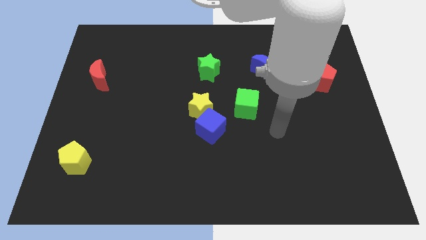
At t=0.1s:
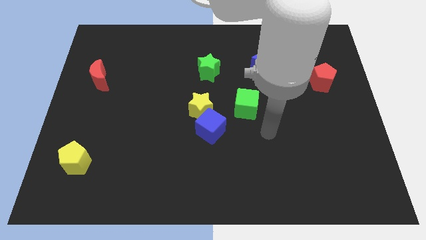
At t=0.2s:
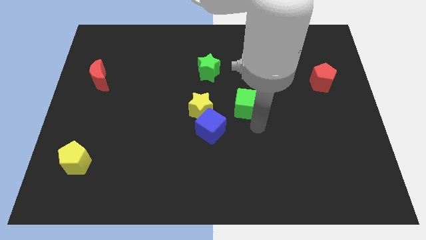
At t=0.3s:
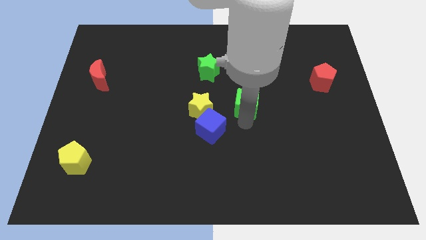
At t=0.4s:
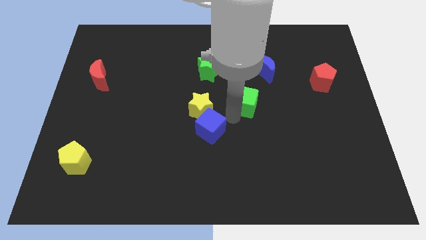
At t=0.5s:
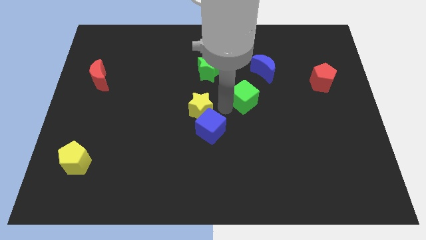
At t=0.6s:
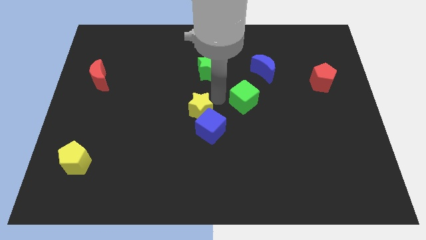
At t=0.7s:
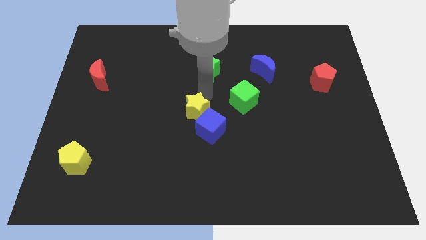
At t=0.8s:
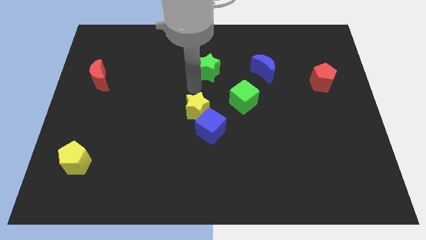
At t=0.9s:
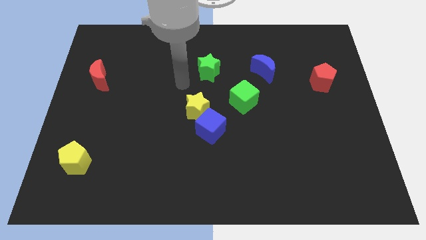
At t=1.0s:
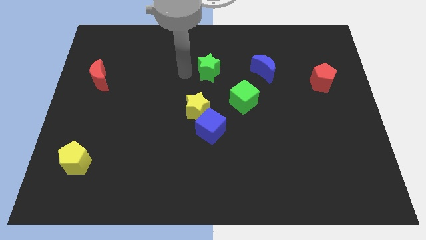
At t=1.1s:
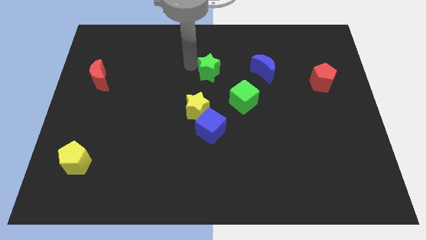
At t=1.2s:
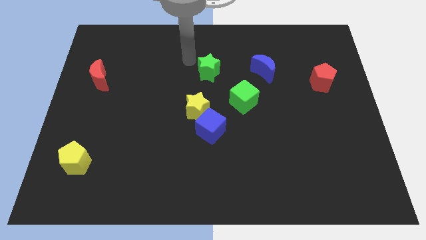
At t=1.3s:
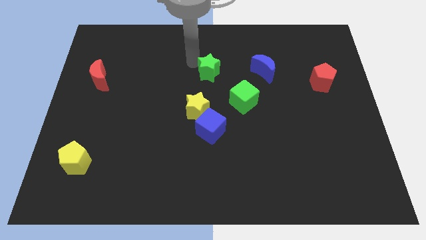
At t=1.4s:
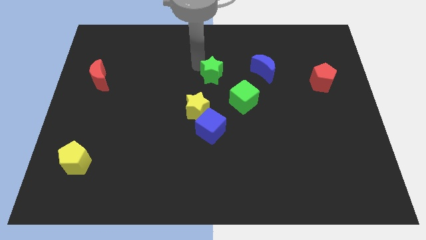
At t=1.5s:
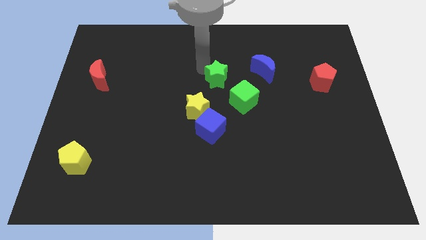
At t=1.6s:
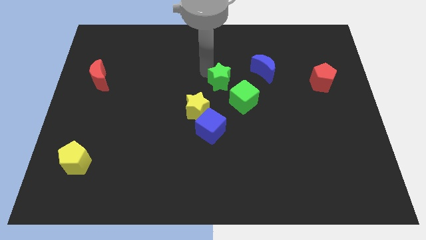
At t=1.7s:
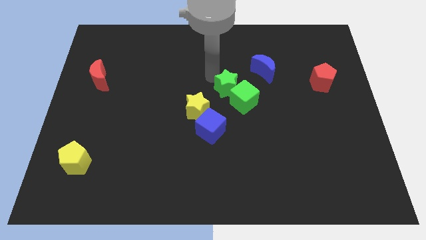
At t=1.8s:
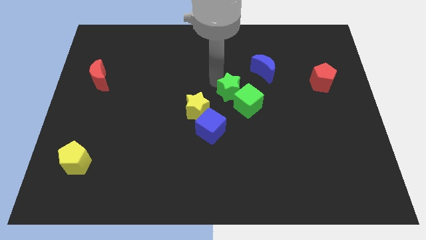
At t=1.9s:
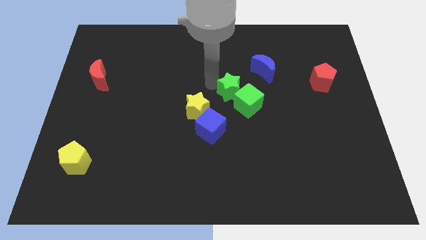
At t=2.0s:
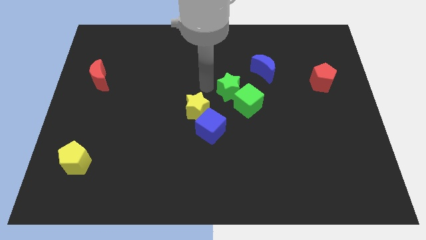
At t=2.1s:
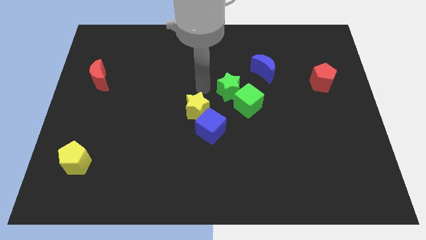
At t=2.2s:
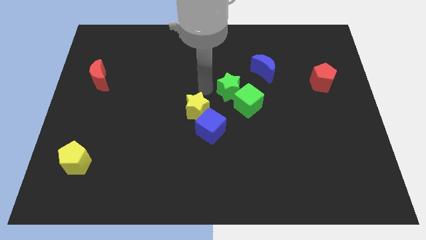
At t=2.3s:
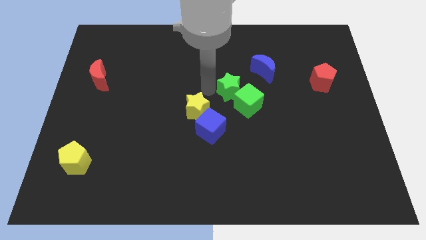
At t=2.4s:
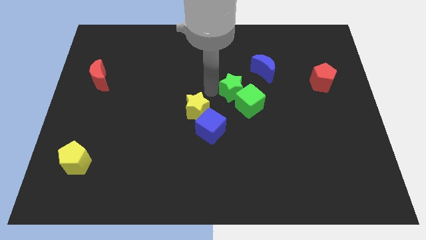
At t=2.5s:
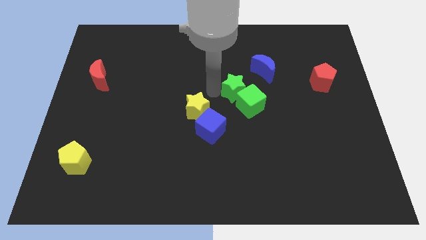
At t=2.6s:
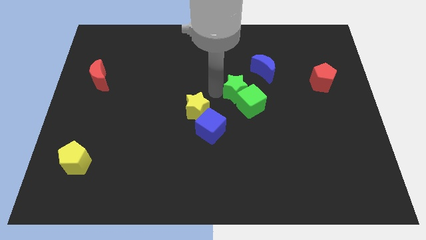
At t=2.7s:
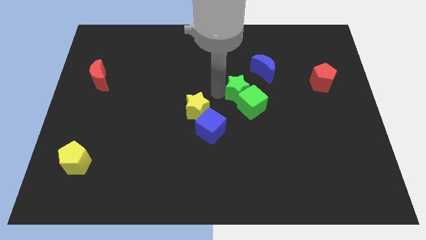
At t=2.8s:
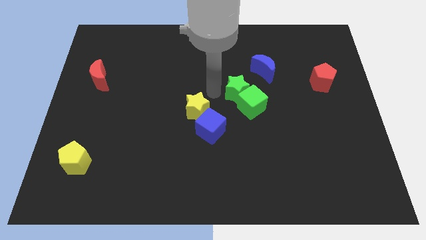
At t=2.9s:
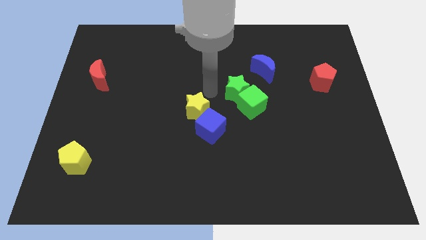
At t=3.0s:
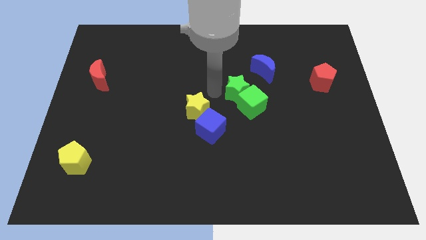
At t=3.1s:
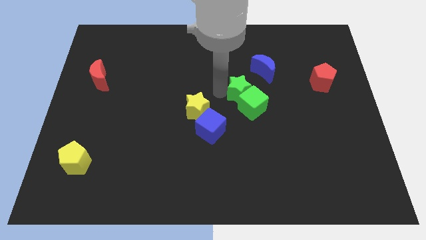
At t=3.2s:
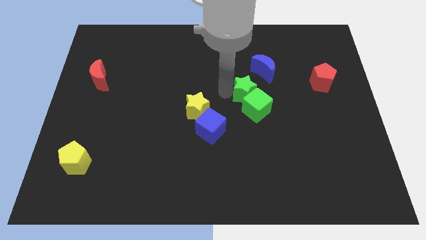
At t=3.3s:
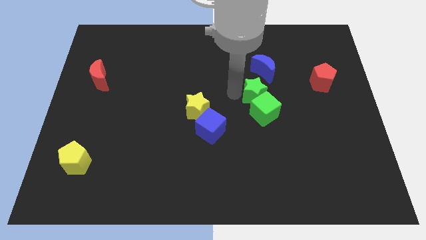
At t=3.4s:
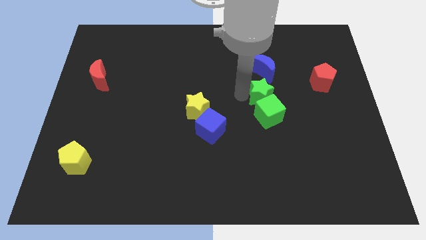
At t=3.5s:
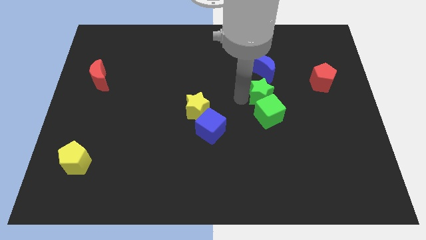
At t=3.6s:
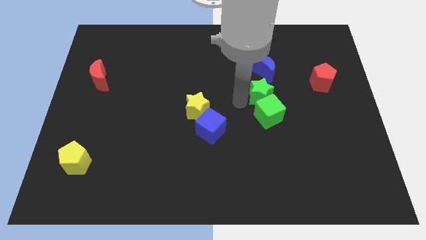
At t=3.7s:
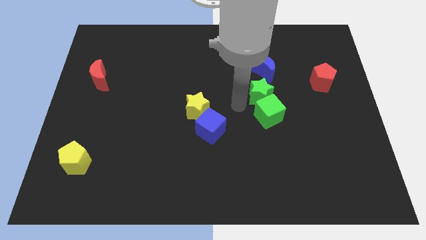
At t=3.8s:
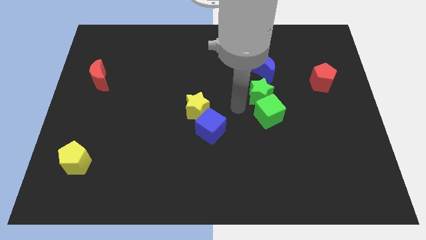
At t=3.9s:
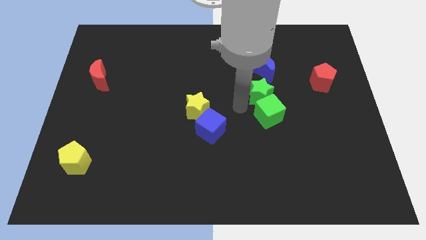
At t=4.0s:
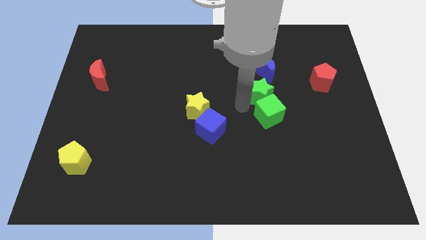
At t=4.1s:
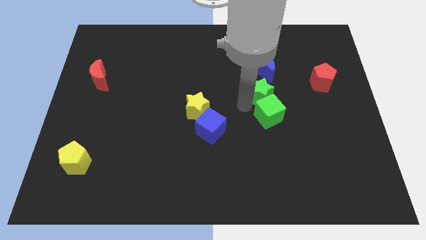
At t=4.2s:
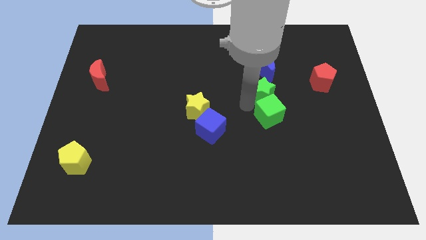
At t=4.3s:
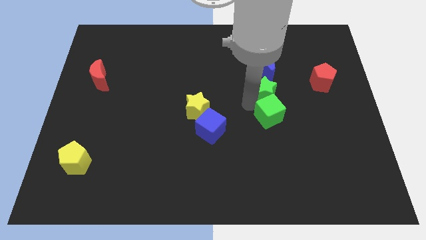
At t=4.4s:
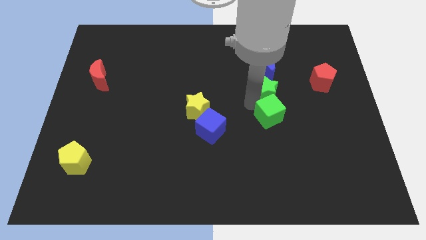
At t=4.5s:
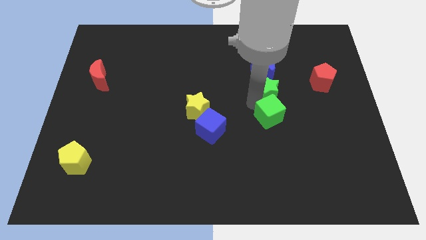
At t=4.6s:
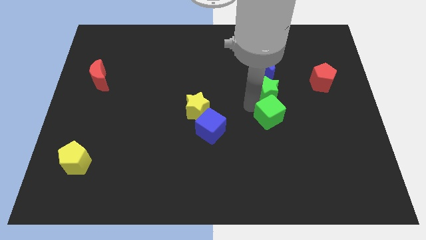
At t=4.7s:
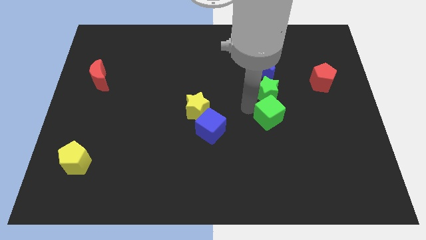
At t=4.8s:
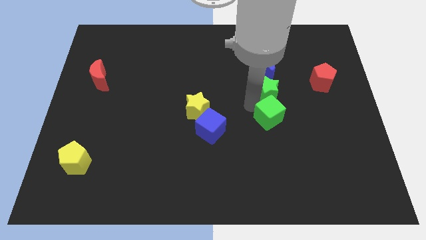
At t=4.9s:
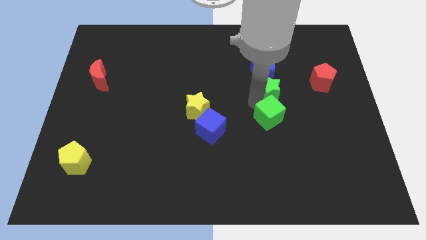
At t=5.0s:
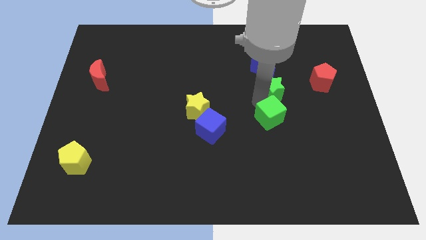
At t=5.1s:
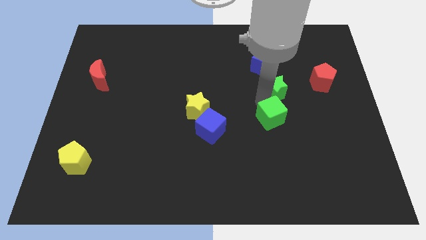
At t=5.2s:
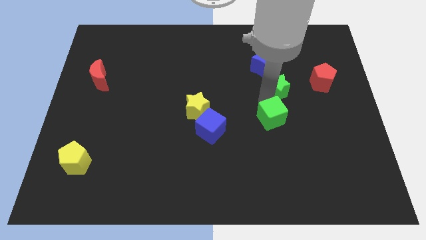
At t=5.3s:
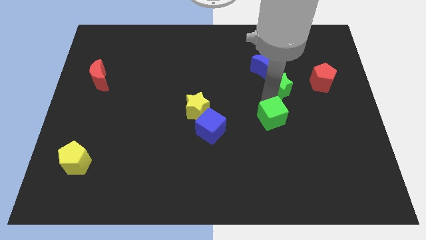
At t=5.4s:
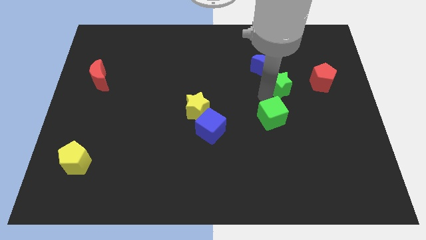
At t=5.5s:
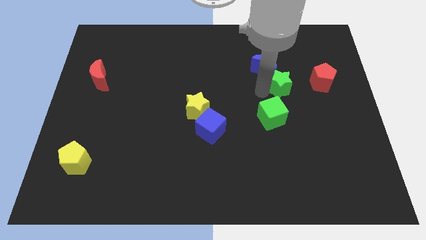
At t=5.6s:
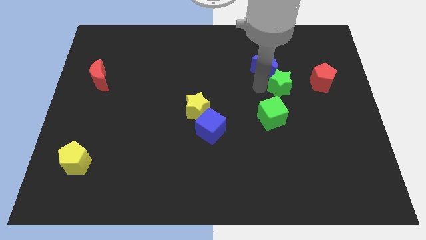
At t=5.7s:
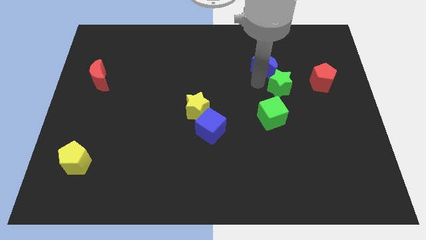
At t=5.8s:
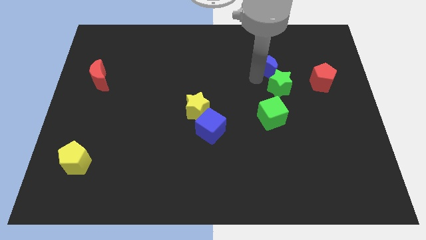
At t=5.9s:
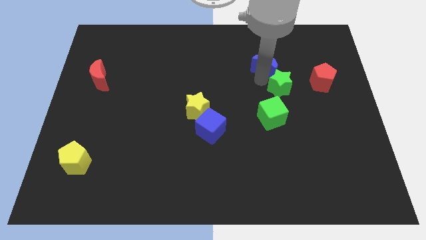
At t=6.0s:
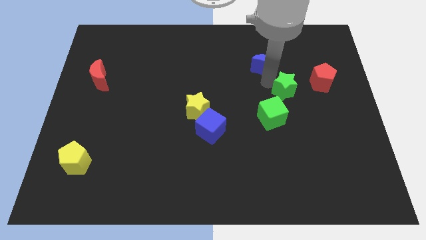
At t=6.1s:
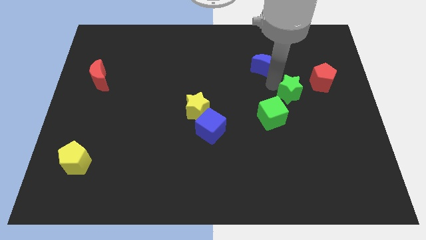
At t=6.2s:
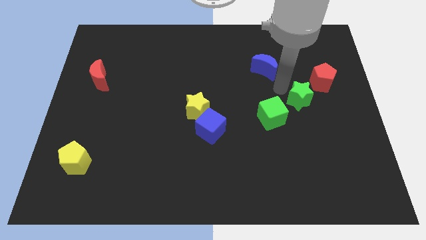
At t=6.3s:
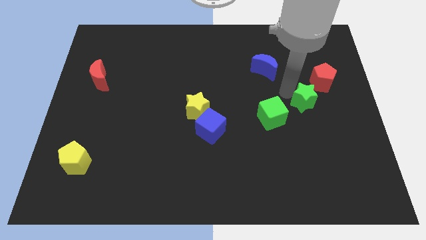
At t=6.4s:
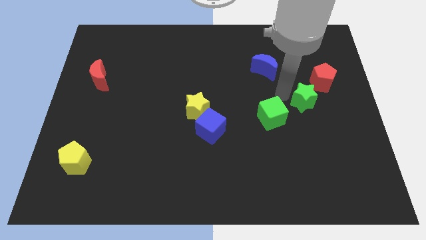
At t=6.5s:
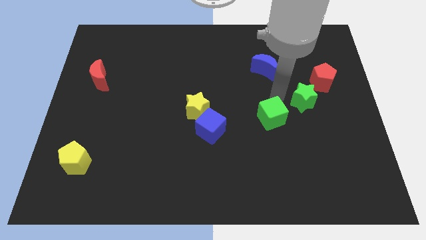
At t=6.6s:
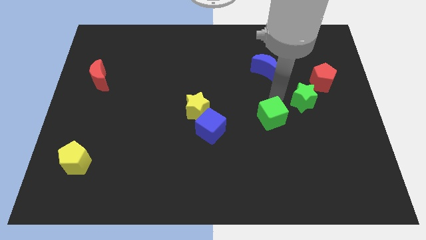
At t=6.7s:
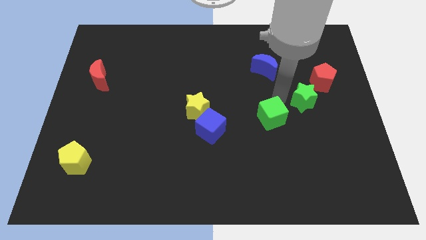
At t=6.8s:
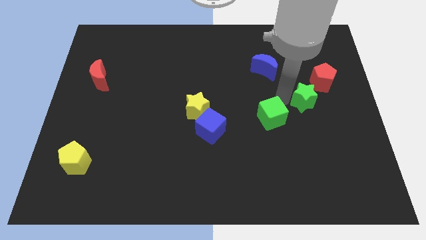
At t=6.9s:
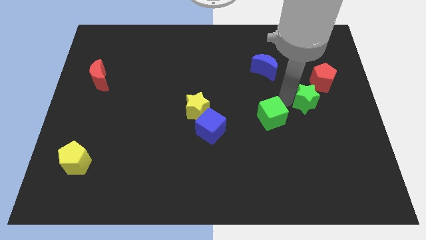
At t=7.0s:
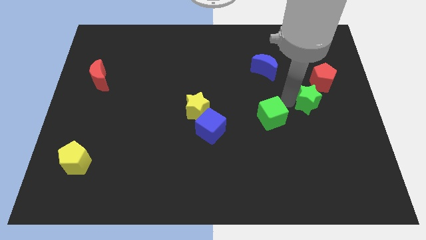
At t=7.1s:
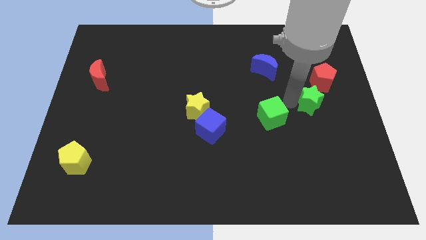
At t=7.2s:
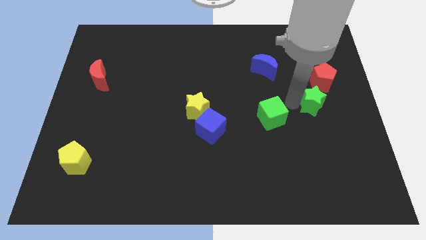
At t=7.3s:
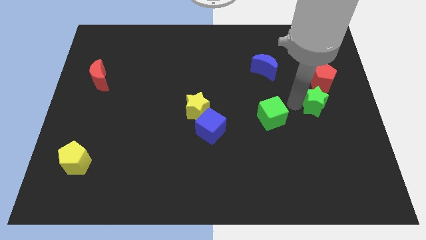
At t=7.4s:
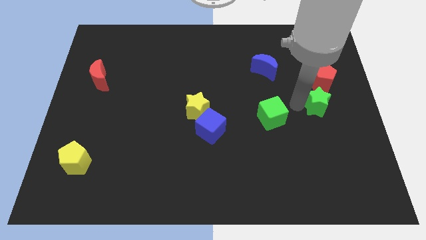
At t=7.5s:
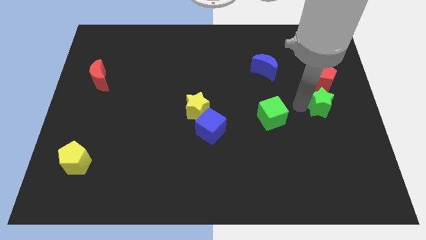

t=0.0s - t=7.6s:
move the green star to the right side
